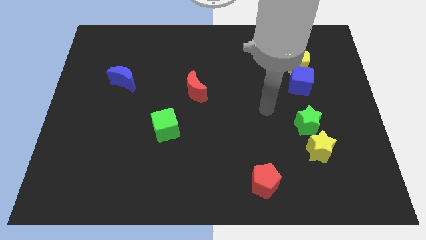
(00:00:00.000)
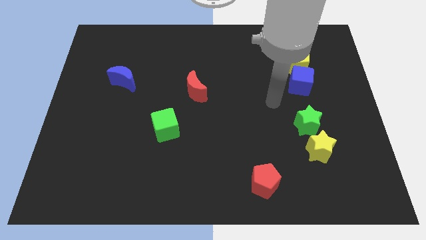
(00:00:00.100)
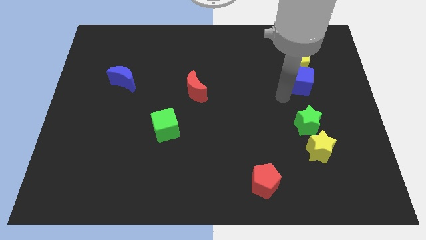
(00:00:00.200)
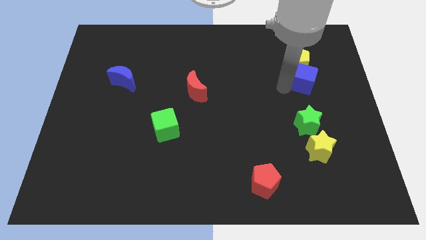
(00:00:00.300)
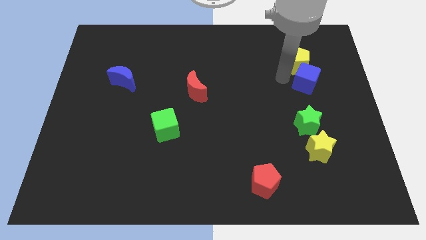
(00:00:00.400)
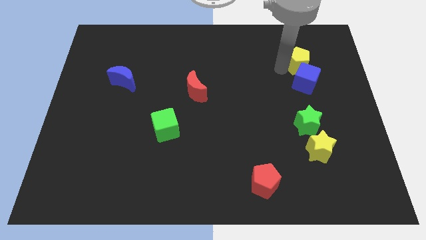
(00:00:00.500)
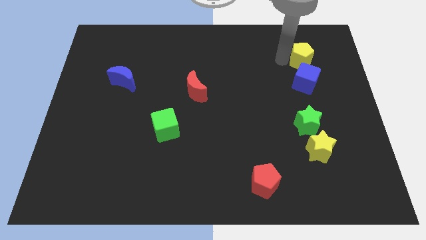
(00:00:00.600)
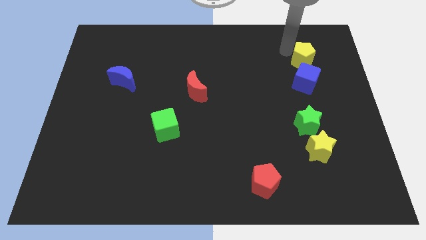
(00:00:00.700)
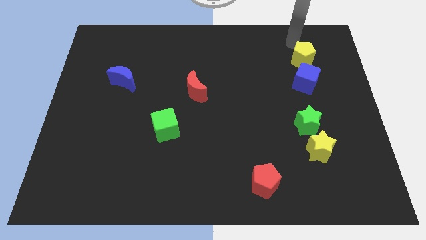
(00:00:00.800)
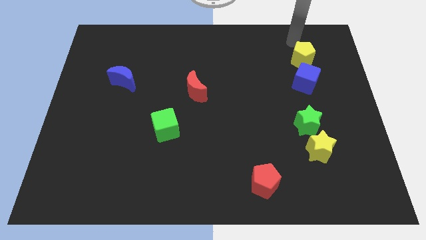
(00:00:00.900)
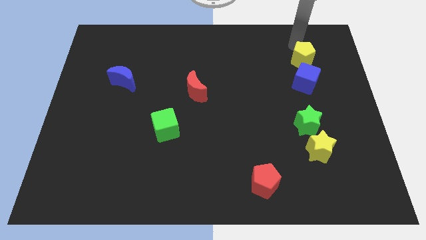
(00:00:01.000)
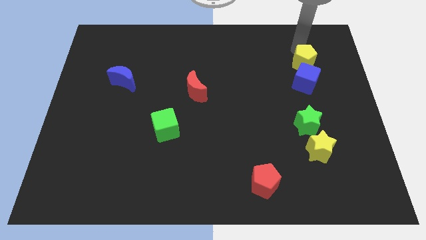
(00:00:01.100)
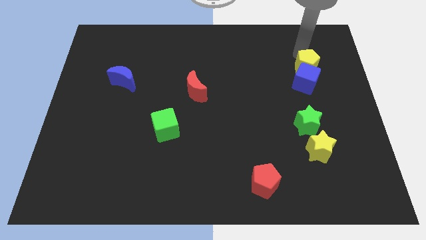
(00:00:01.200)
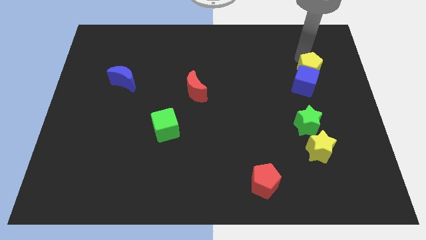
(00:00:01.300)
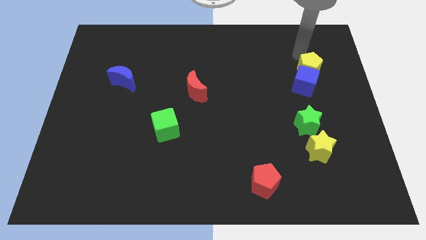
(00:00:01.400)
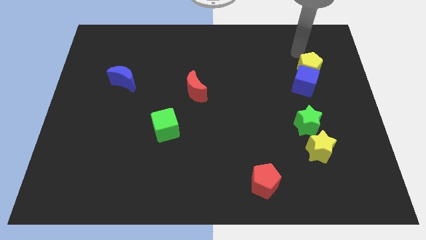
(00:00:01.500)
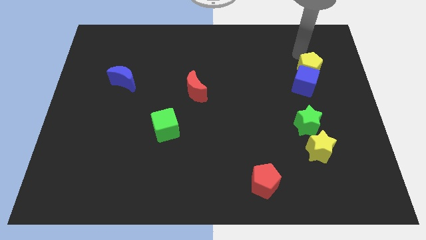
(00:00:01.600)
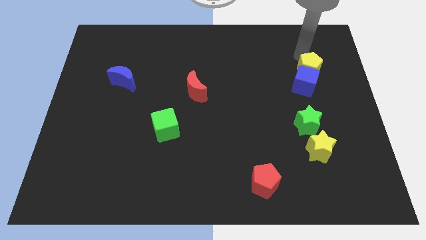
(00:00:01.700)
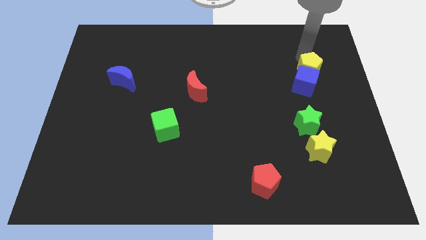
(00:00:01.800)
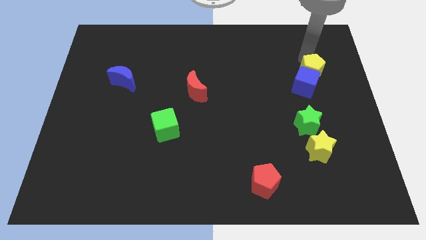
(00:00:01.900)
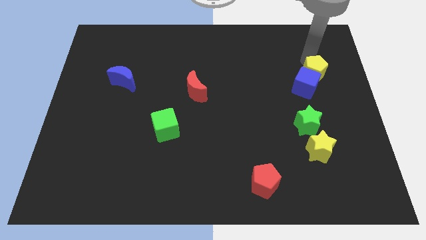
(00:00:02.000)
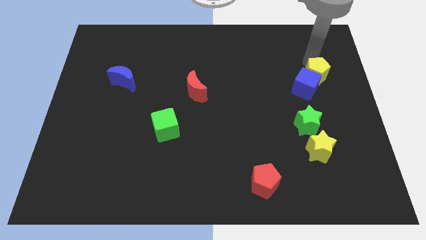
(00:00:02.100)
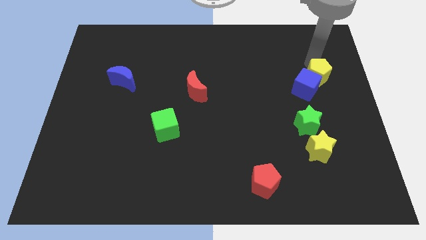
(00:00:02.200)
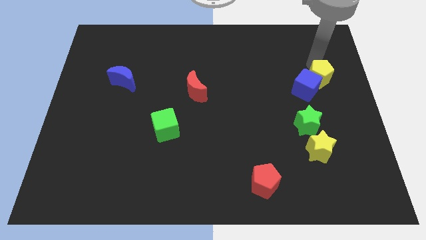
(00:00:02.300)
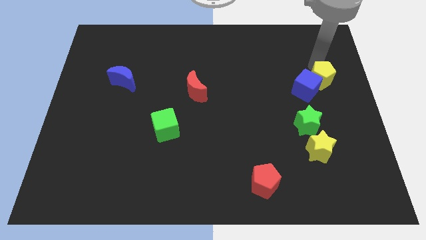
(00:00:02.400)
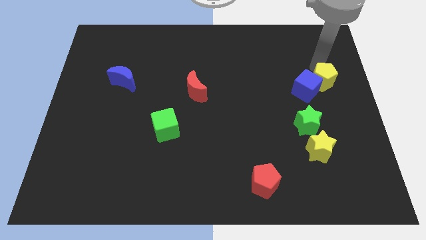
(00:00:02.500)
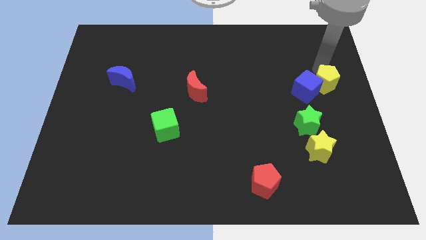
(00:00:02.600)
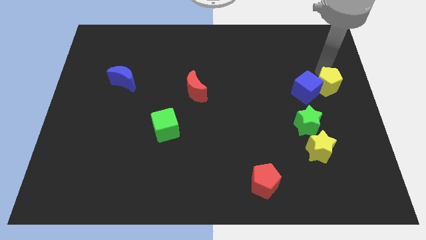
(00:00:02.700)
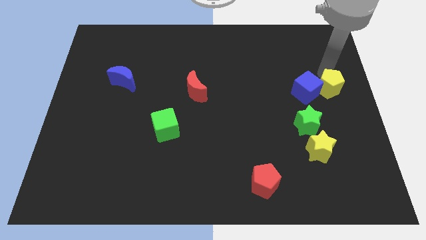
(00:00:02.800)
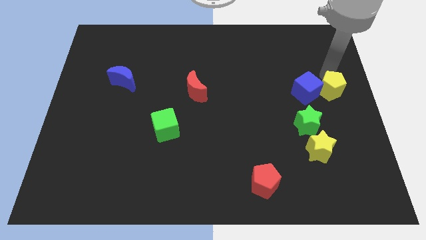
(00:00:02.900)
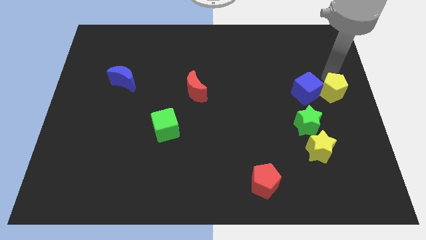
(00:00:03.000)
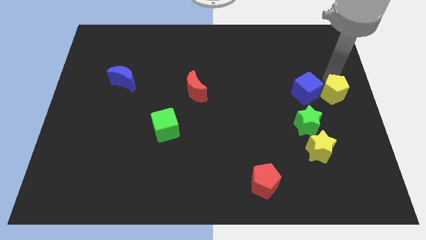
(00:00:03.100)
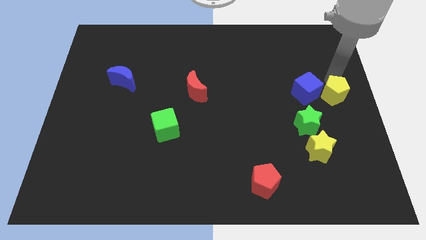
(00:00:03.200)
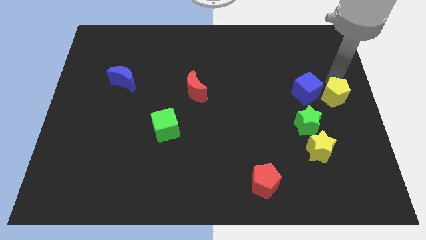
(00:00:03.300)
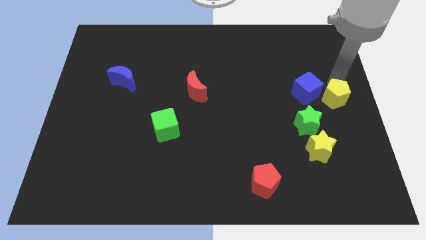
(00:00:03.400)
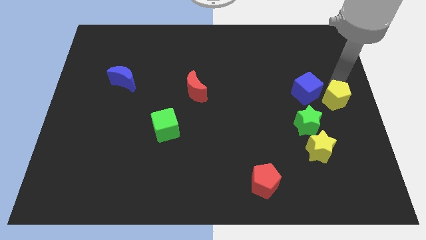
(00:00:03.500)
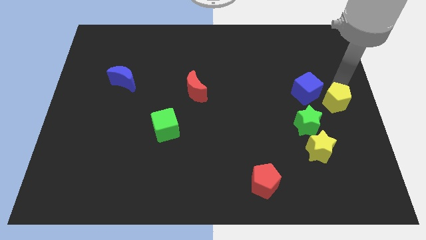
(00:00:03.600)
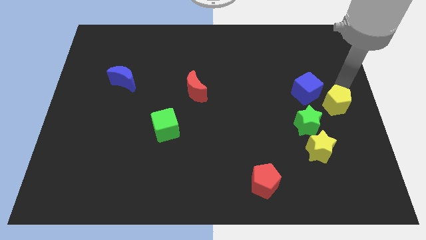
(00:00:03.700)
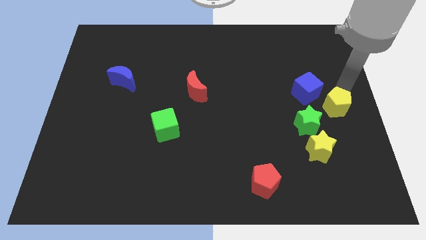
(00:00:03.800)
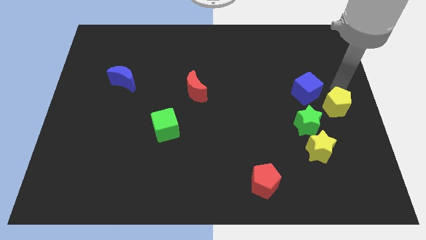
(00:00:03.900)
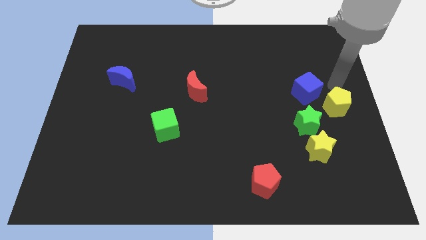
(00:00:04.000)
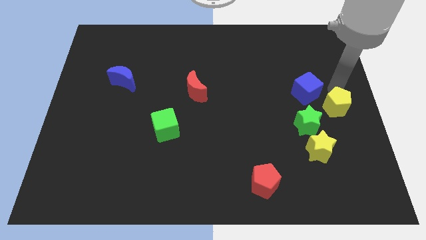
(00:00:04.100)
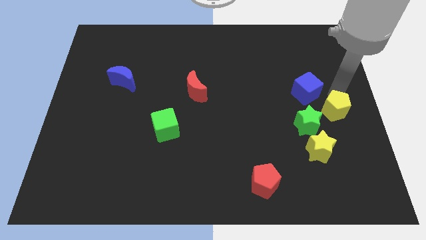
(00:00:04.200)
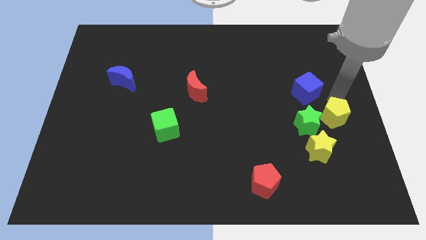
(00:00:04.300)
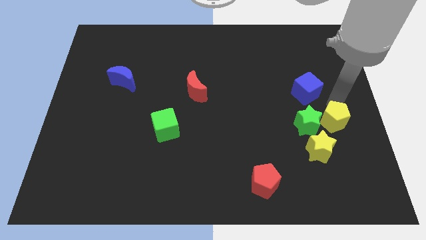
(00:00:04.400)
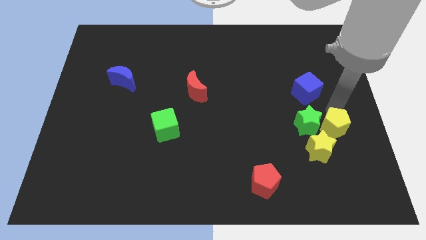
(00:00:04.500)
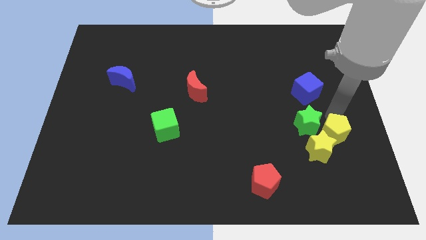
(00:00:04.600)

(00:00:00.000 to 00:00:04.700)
move the yellow pentagon downwards

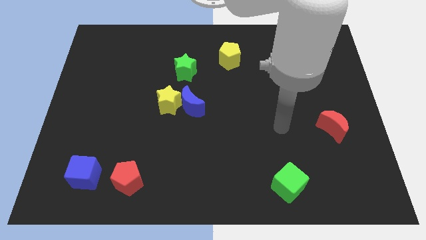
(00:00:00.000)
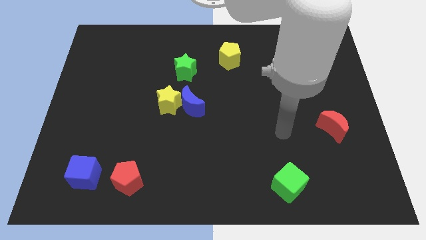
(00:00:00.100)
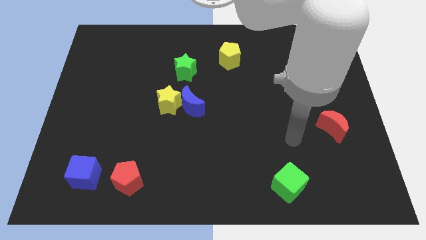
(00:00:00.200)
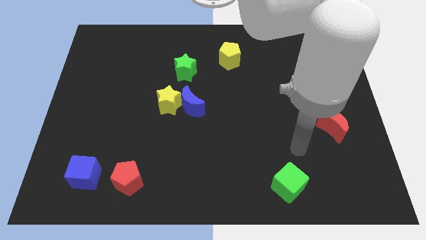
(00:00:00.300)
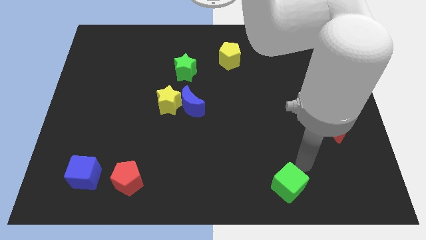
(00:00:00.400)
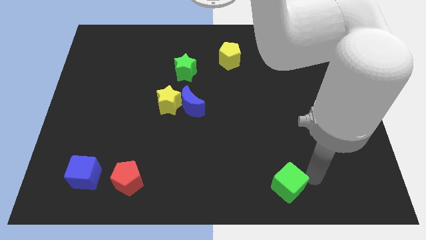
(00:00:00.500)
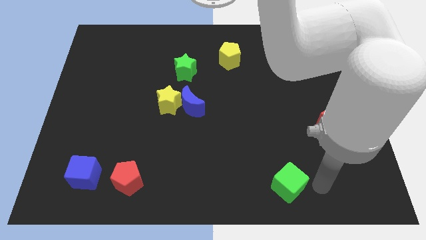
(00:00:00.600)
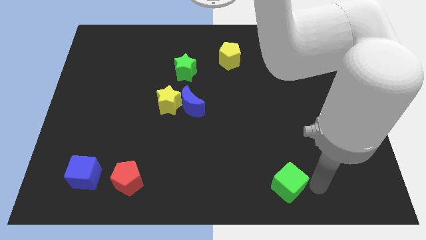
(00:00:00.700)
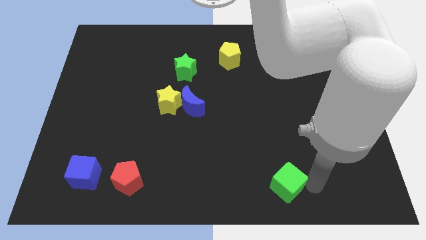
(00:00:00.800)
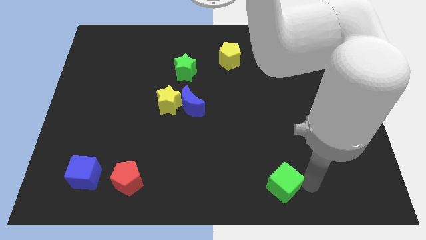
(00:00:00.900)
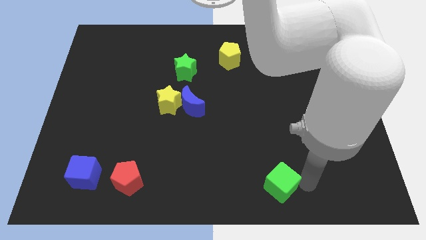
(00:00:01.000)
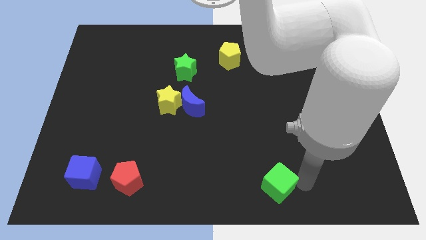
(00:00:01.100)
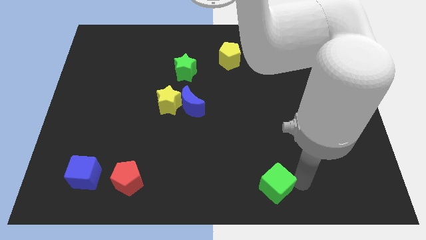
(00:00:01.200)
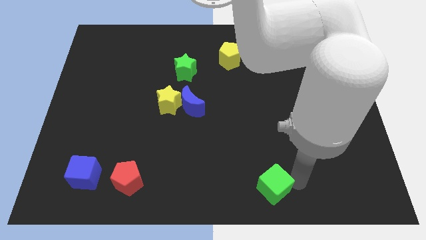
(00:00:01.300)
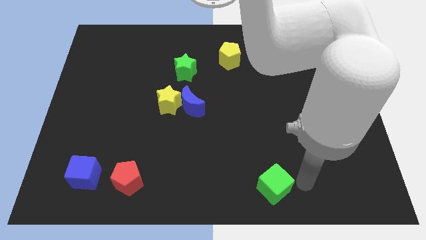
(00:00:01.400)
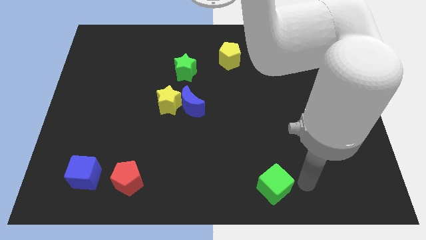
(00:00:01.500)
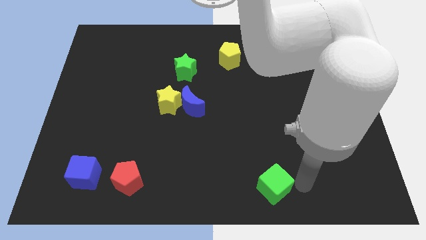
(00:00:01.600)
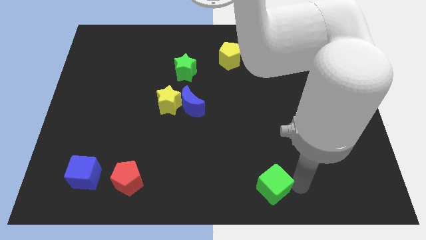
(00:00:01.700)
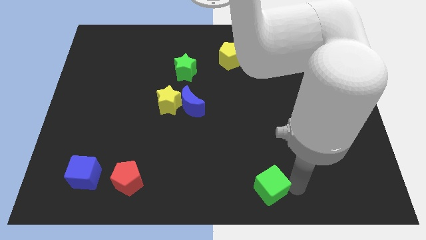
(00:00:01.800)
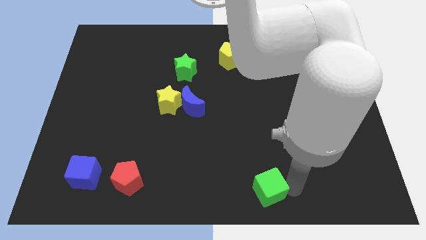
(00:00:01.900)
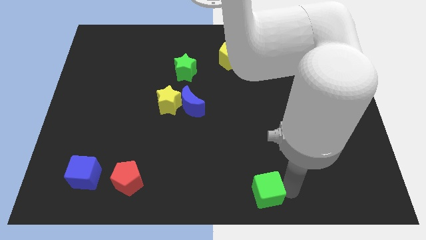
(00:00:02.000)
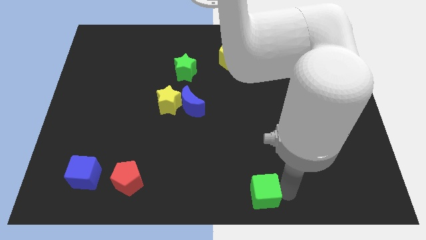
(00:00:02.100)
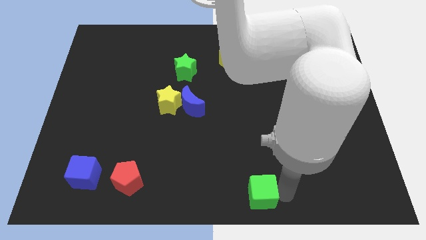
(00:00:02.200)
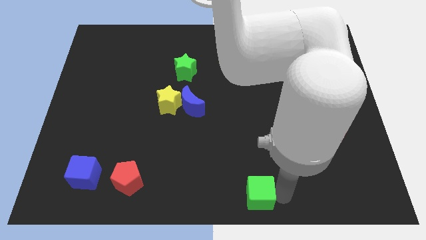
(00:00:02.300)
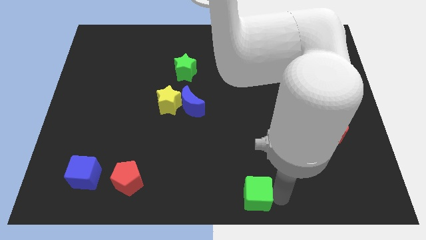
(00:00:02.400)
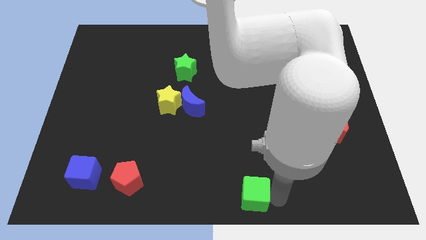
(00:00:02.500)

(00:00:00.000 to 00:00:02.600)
push the green cube left slightly

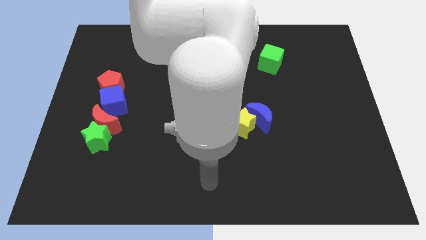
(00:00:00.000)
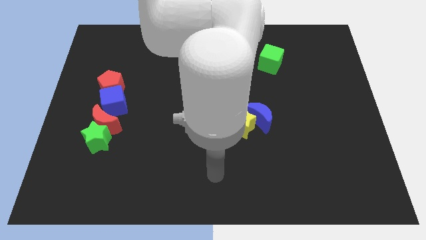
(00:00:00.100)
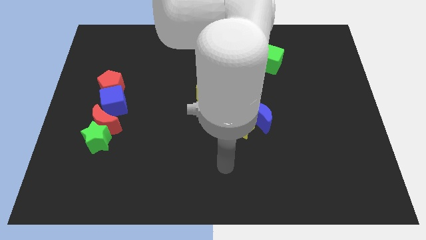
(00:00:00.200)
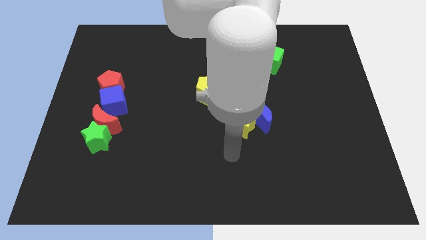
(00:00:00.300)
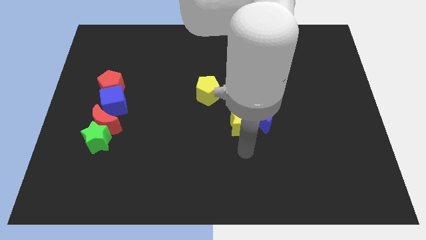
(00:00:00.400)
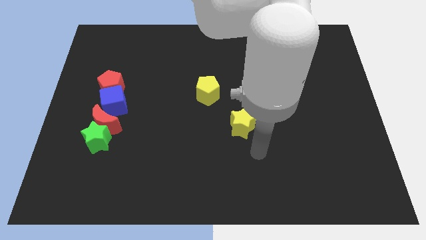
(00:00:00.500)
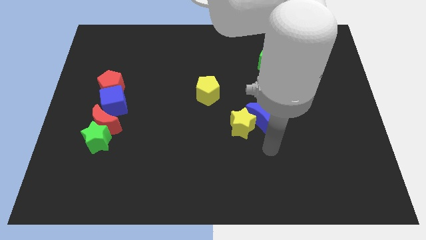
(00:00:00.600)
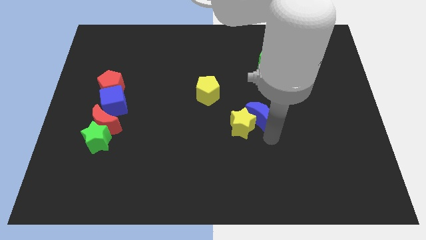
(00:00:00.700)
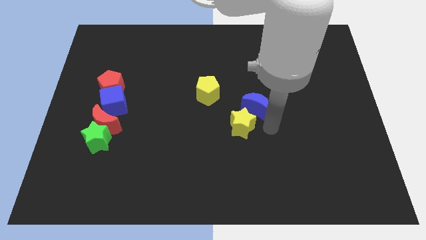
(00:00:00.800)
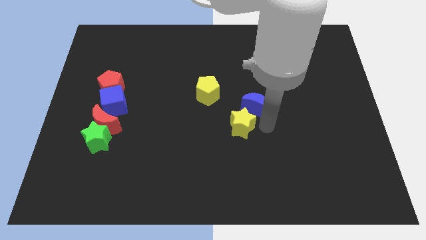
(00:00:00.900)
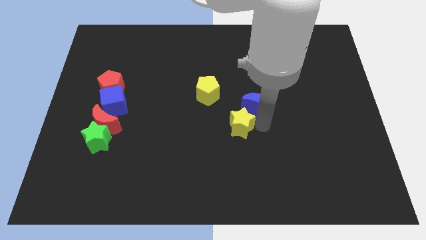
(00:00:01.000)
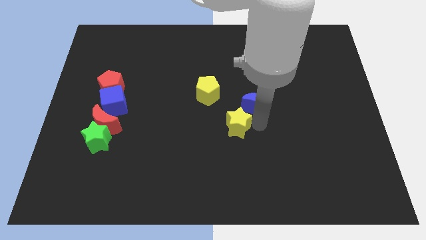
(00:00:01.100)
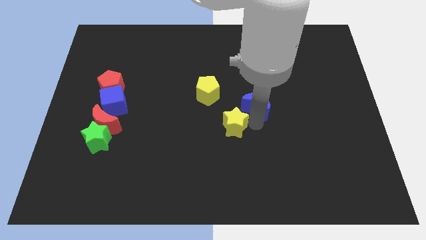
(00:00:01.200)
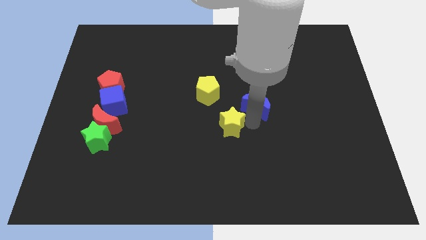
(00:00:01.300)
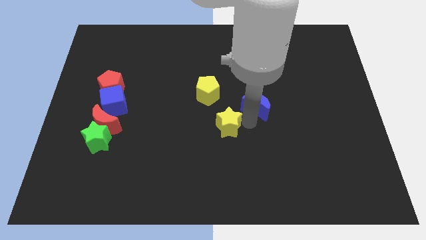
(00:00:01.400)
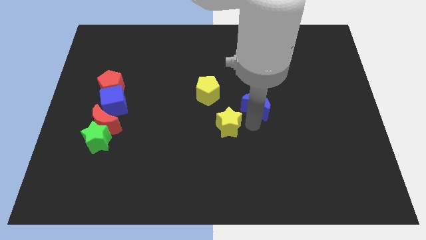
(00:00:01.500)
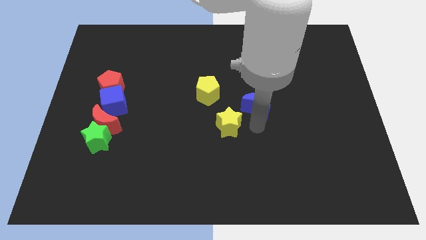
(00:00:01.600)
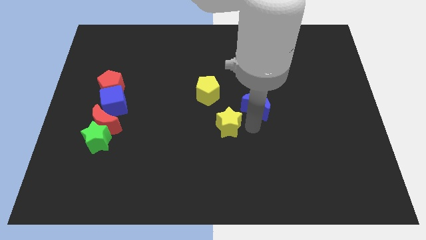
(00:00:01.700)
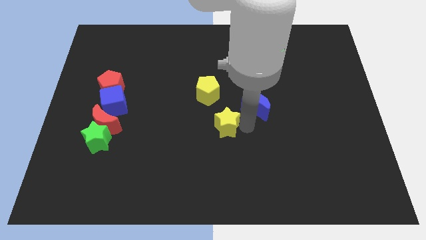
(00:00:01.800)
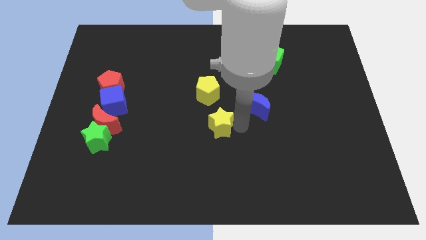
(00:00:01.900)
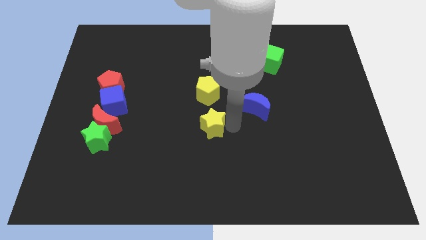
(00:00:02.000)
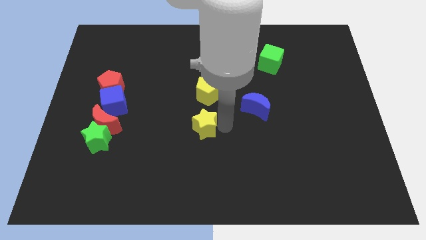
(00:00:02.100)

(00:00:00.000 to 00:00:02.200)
slightly slide the yellow star to the left
